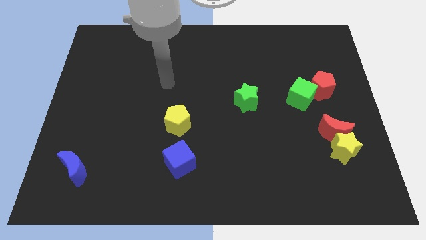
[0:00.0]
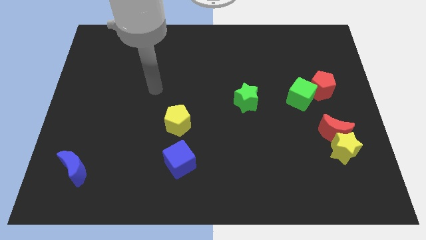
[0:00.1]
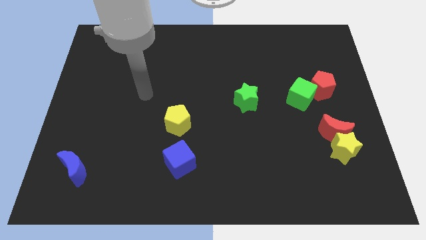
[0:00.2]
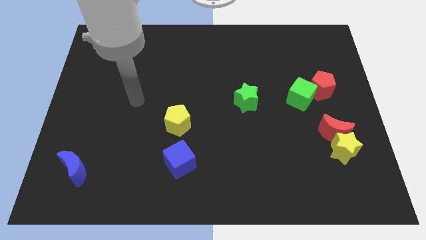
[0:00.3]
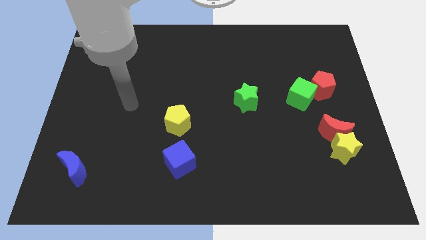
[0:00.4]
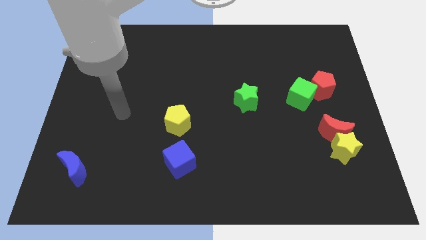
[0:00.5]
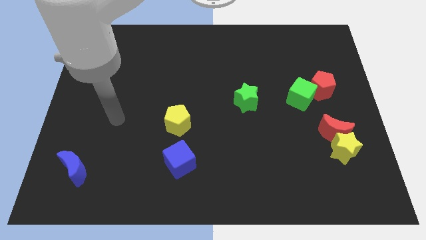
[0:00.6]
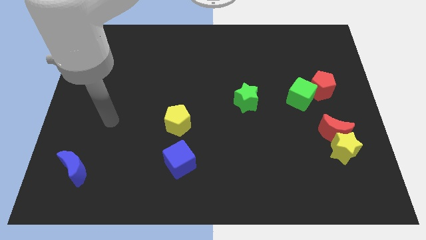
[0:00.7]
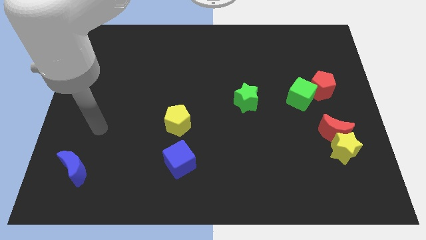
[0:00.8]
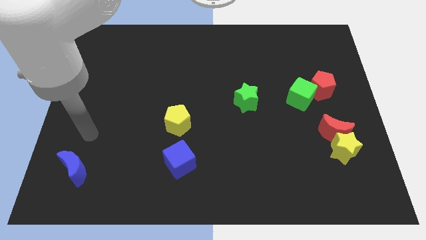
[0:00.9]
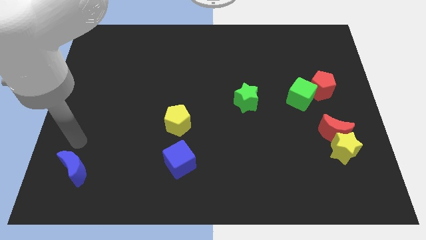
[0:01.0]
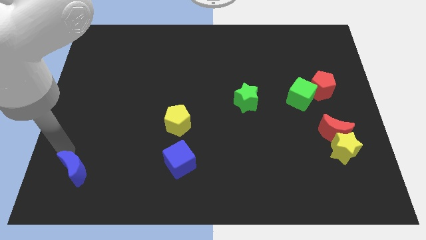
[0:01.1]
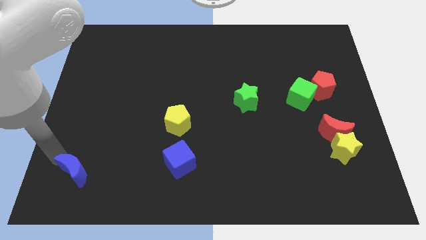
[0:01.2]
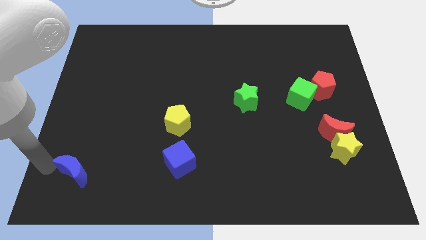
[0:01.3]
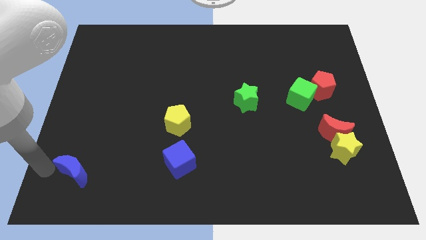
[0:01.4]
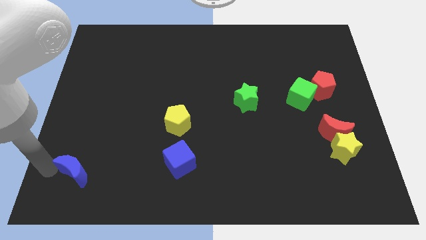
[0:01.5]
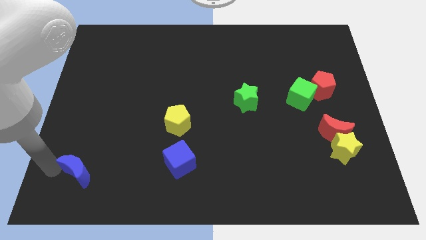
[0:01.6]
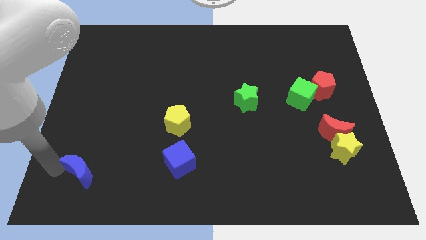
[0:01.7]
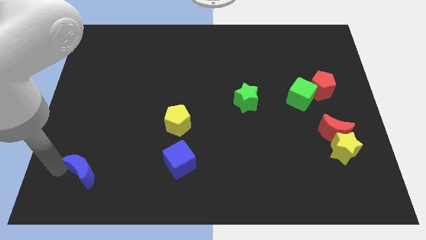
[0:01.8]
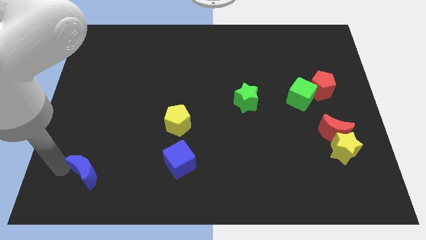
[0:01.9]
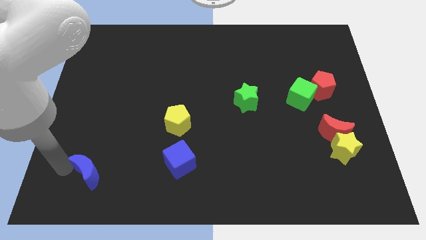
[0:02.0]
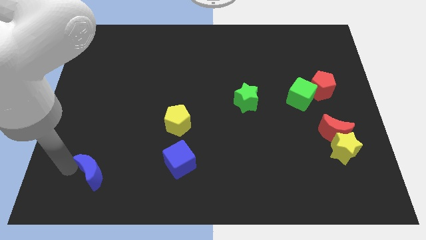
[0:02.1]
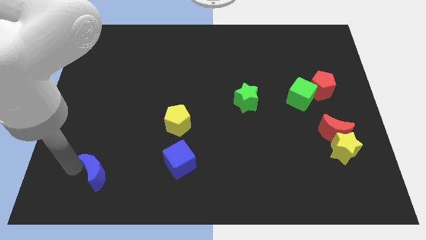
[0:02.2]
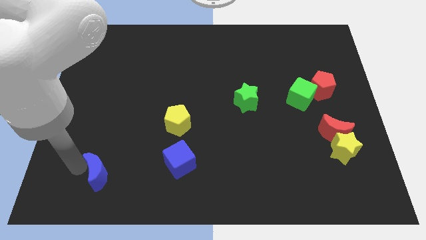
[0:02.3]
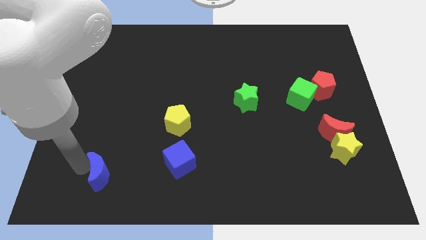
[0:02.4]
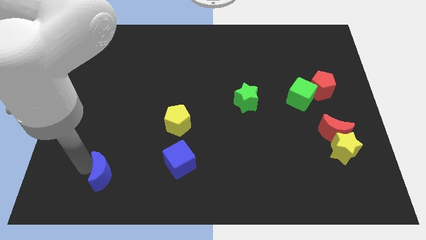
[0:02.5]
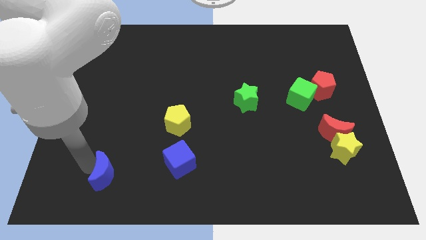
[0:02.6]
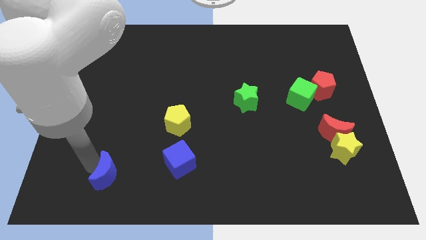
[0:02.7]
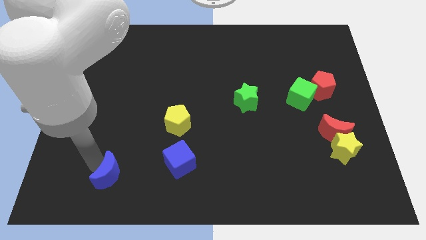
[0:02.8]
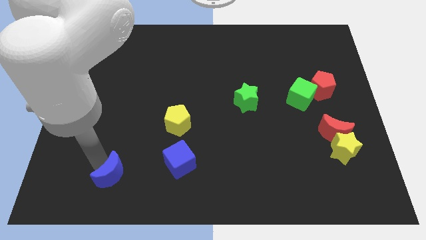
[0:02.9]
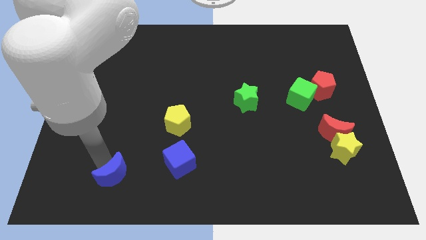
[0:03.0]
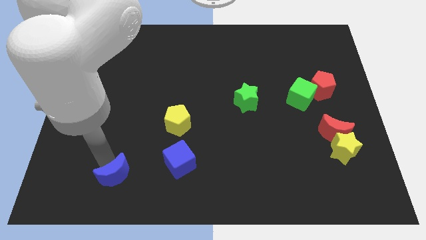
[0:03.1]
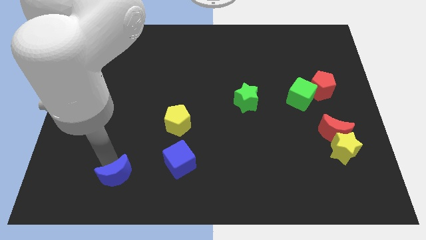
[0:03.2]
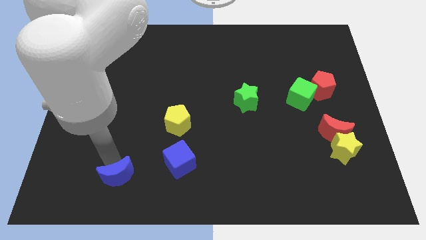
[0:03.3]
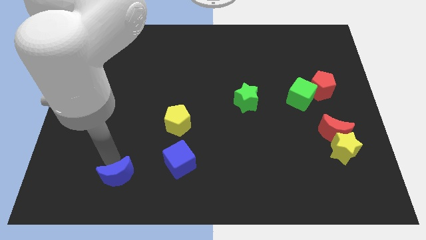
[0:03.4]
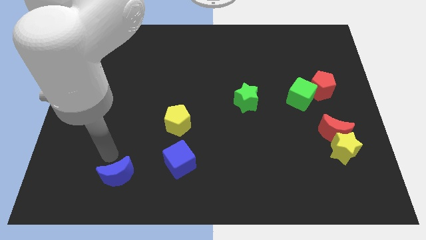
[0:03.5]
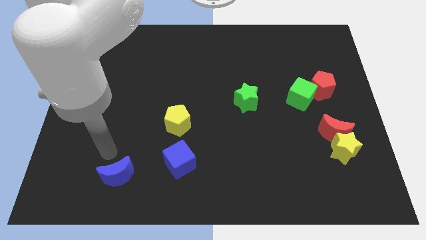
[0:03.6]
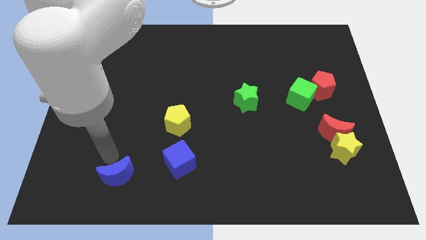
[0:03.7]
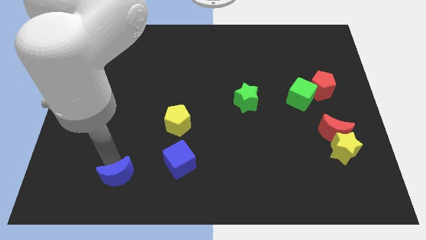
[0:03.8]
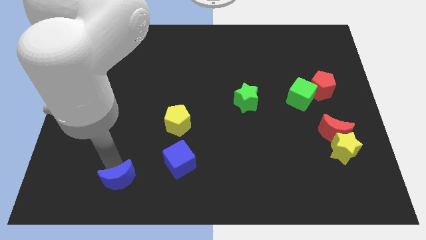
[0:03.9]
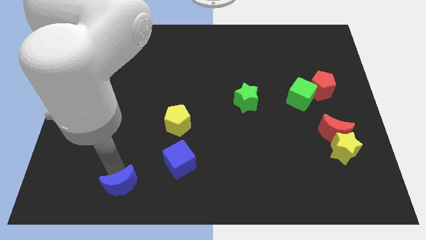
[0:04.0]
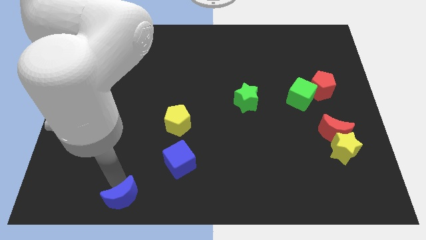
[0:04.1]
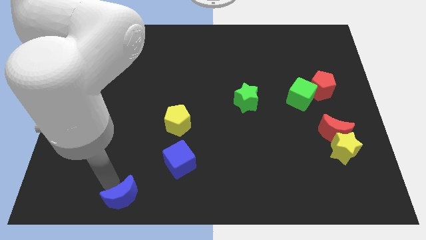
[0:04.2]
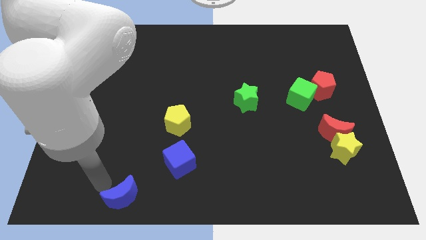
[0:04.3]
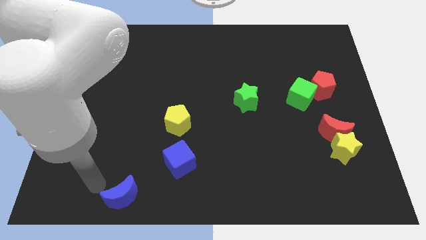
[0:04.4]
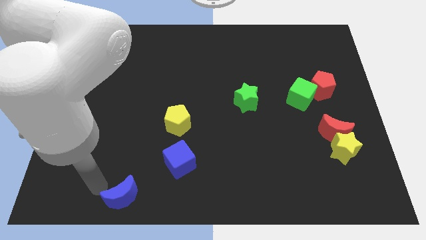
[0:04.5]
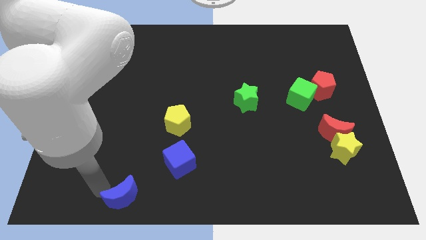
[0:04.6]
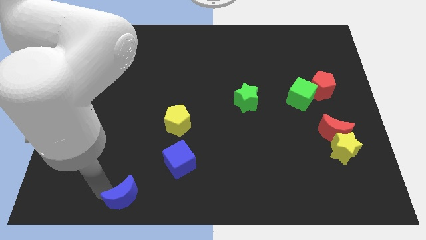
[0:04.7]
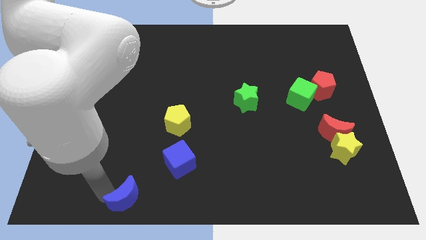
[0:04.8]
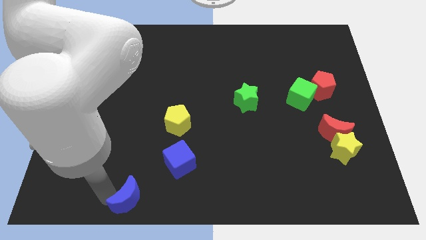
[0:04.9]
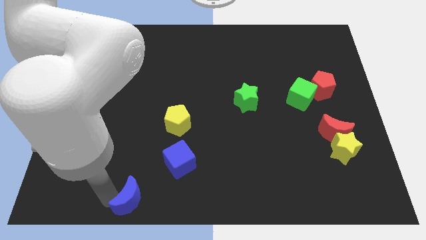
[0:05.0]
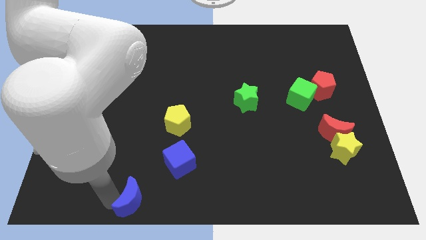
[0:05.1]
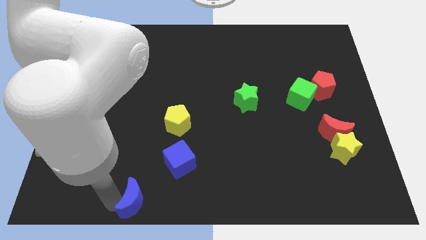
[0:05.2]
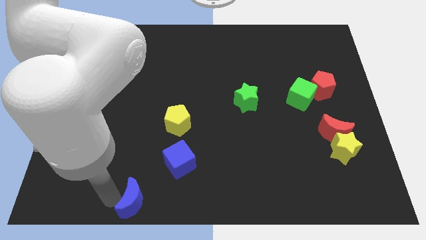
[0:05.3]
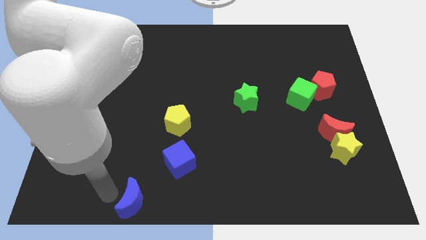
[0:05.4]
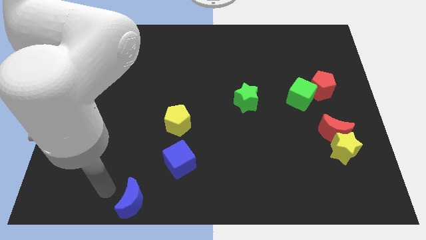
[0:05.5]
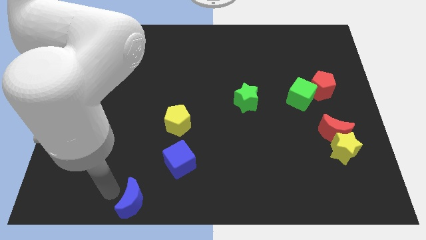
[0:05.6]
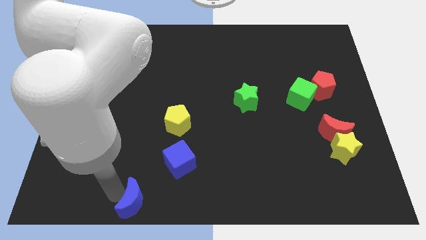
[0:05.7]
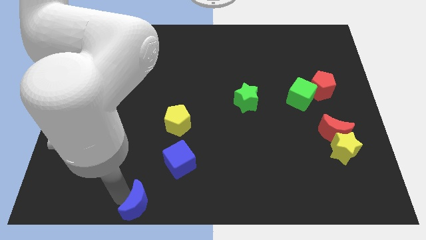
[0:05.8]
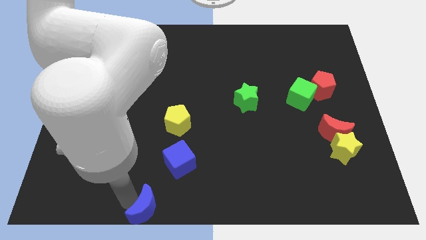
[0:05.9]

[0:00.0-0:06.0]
move the blue moon to the bottom
